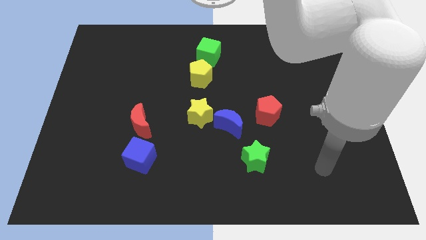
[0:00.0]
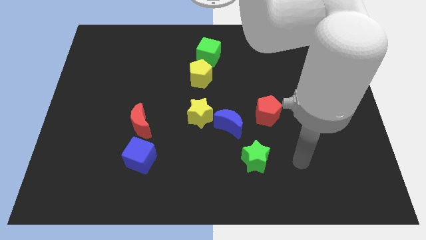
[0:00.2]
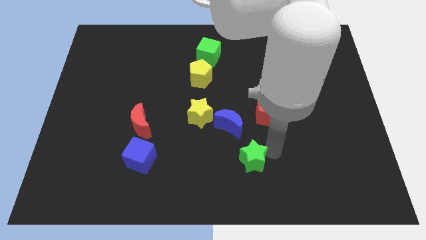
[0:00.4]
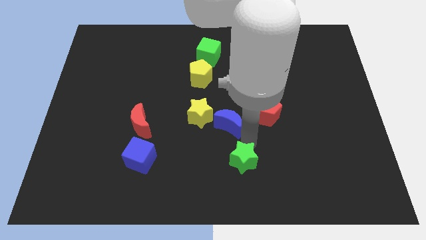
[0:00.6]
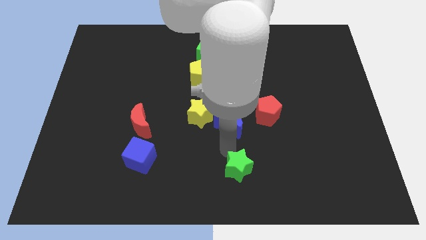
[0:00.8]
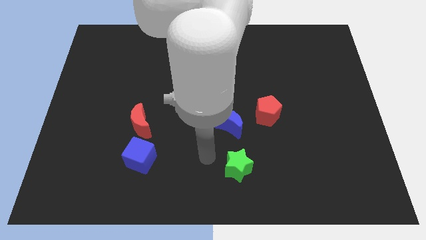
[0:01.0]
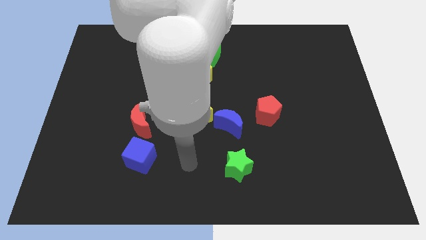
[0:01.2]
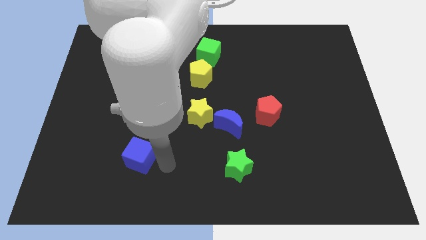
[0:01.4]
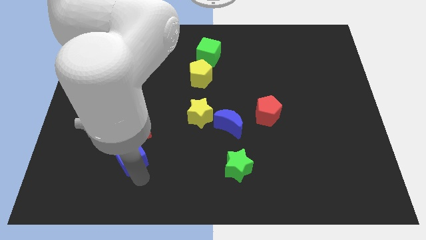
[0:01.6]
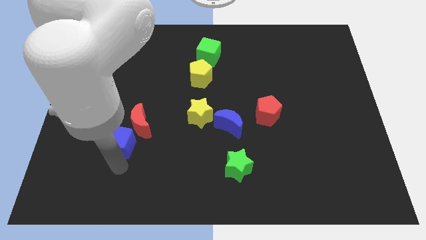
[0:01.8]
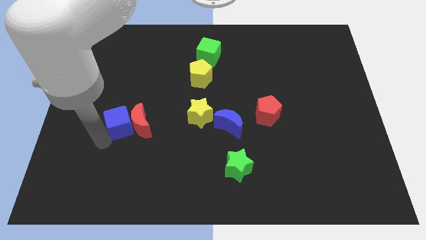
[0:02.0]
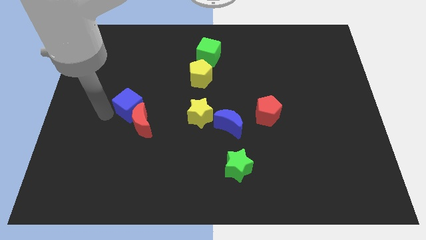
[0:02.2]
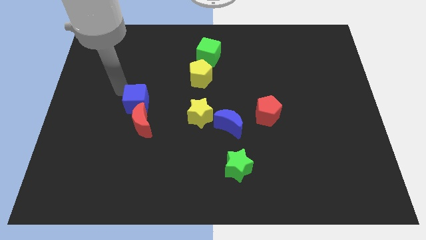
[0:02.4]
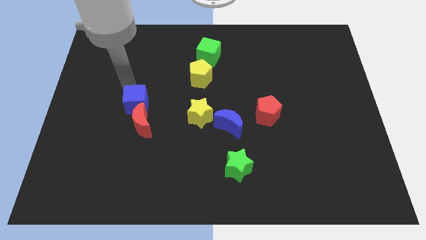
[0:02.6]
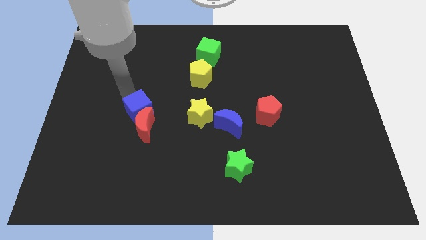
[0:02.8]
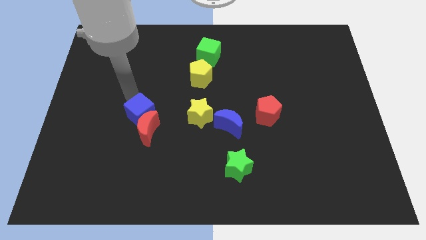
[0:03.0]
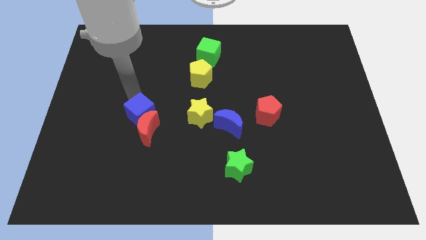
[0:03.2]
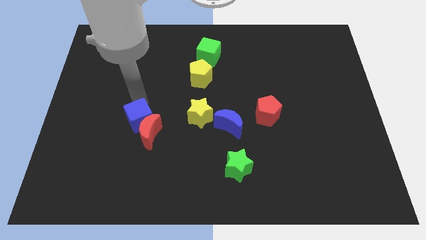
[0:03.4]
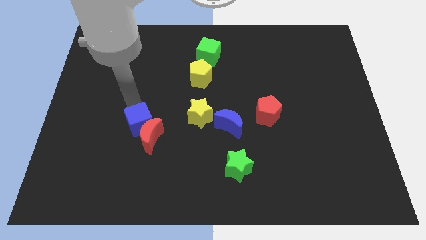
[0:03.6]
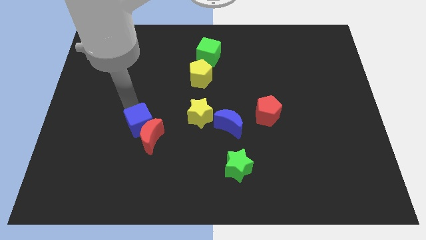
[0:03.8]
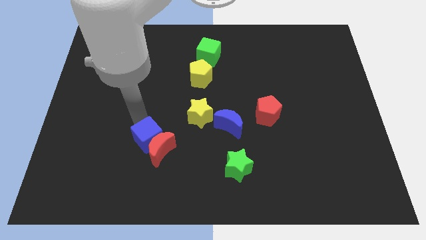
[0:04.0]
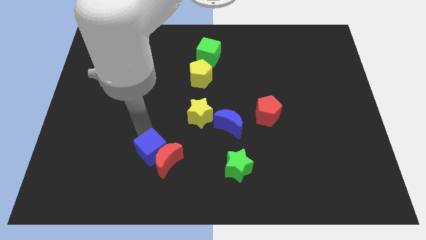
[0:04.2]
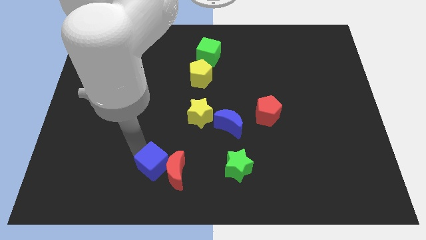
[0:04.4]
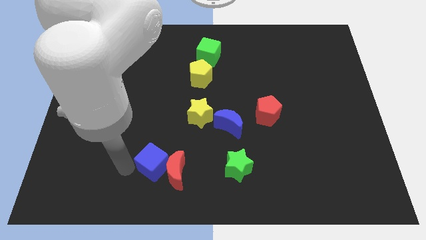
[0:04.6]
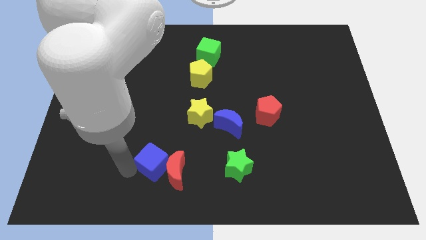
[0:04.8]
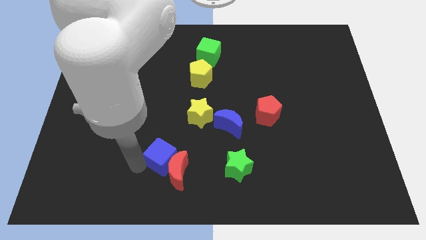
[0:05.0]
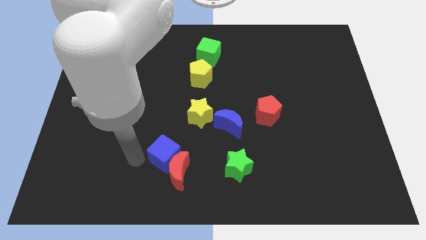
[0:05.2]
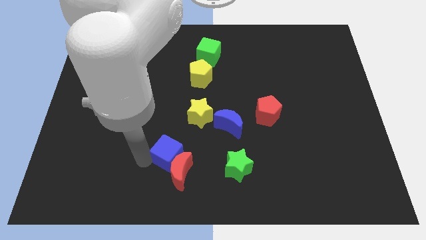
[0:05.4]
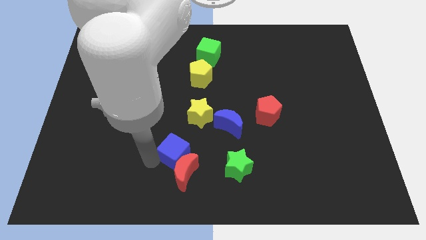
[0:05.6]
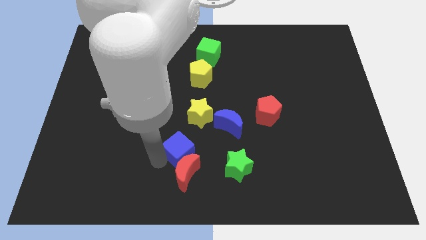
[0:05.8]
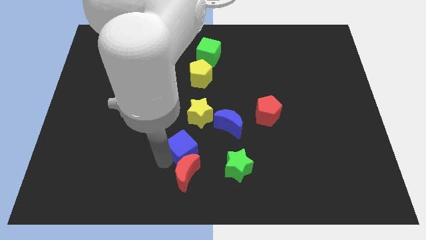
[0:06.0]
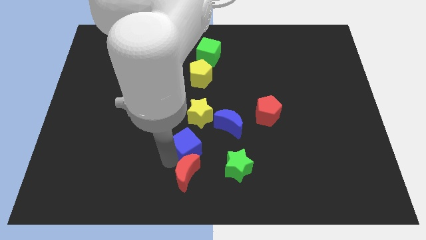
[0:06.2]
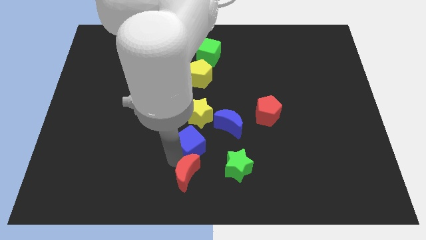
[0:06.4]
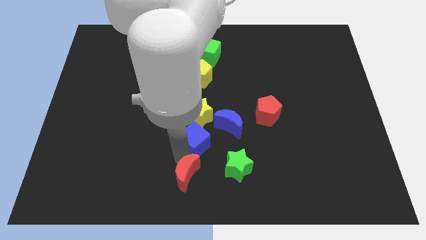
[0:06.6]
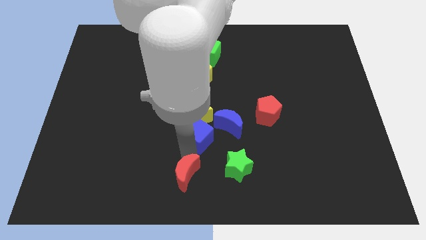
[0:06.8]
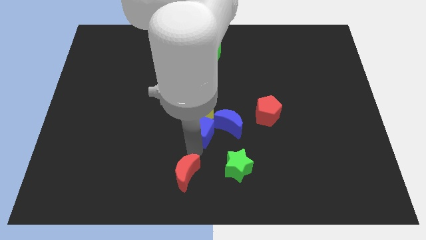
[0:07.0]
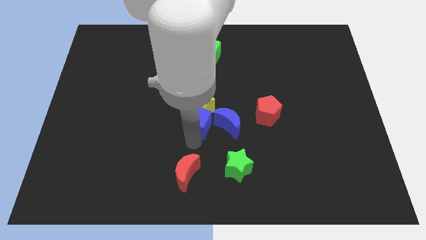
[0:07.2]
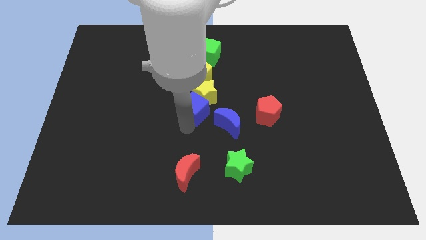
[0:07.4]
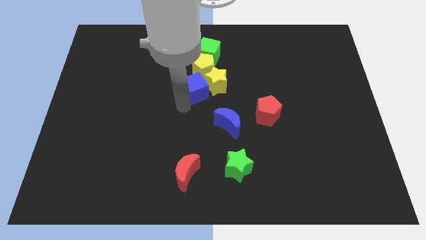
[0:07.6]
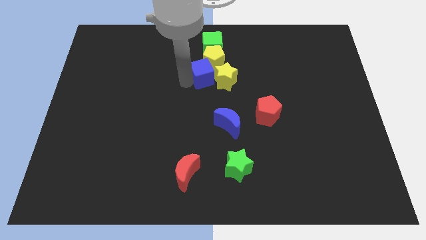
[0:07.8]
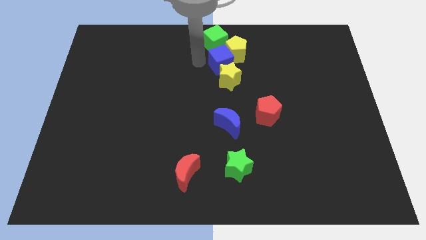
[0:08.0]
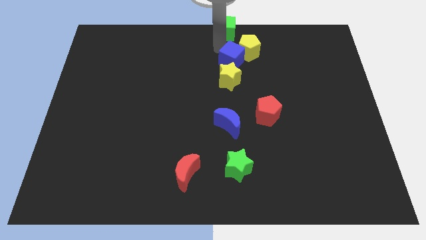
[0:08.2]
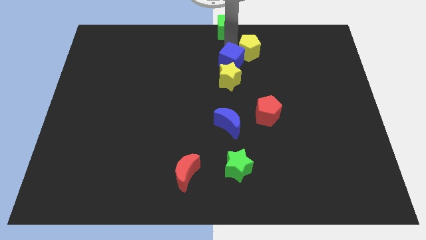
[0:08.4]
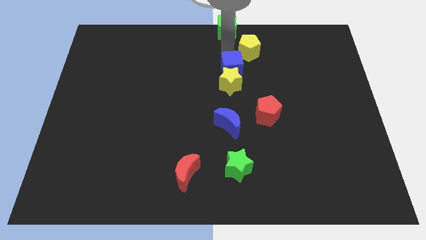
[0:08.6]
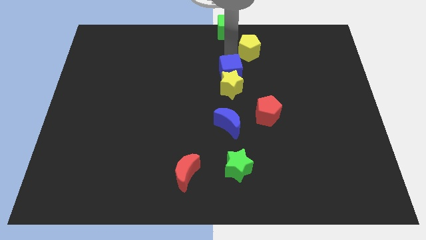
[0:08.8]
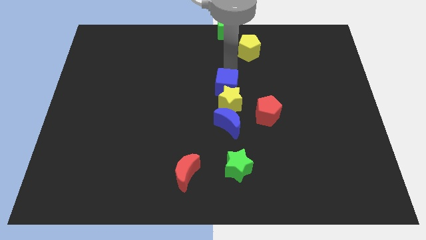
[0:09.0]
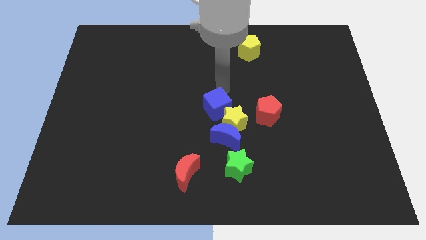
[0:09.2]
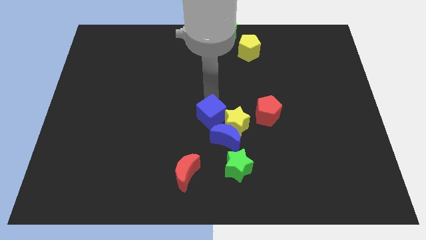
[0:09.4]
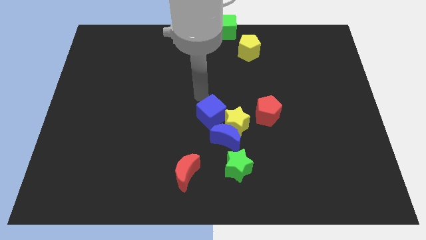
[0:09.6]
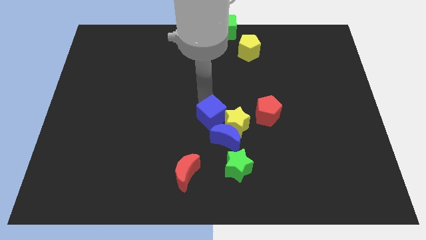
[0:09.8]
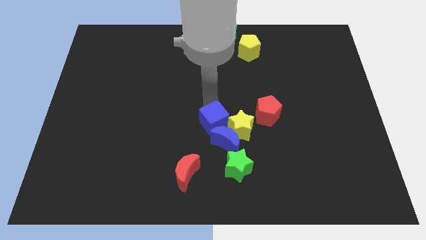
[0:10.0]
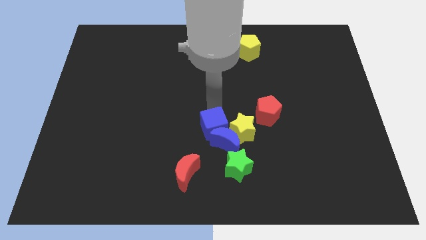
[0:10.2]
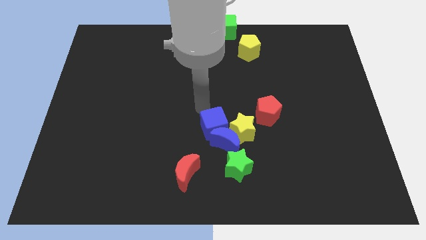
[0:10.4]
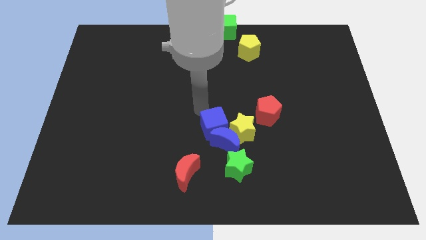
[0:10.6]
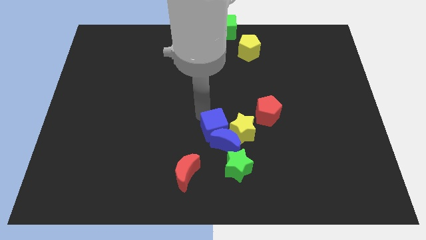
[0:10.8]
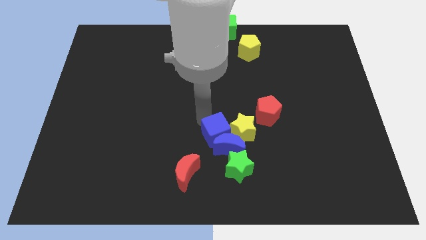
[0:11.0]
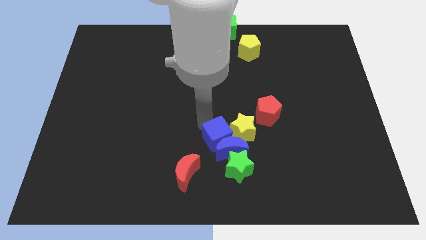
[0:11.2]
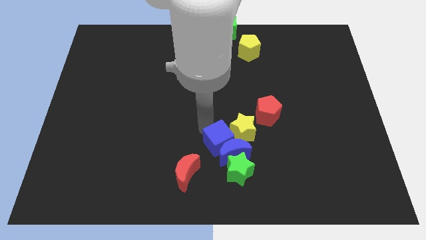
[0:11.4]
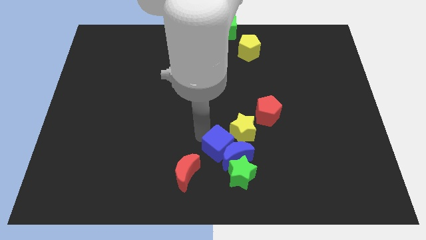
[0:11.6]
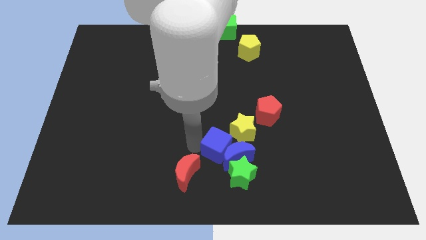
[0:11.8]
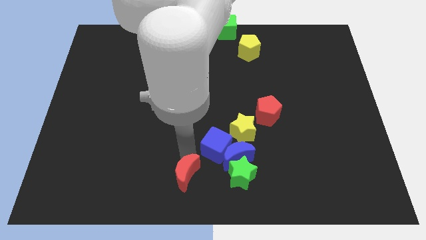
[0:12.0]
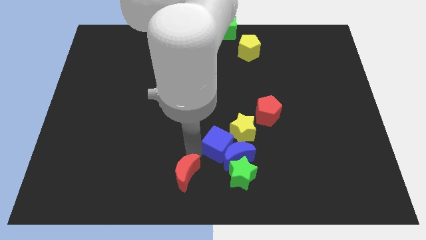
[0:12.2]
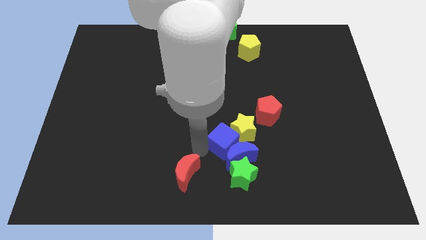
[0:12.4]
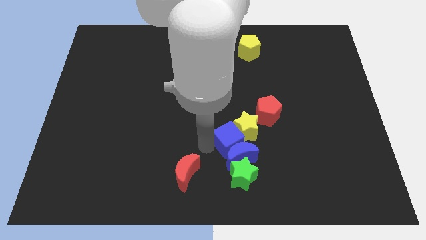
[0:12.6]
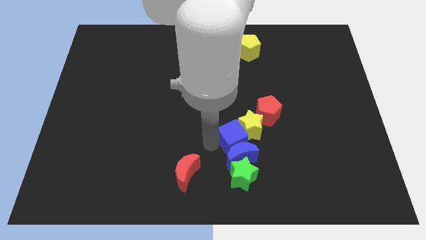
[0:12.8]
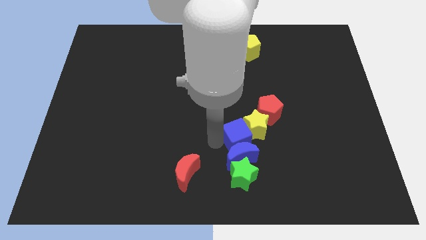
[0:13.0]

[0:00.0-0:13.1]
slide the blue cube to the right

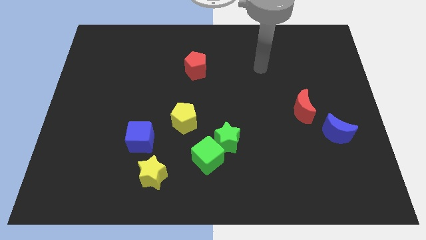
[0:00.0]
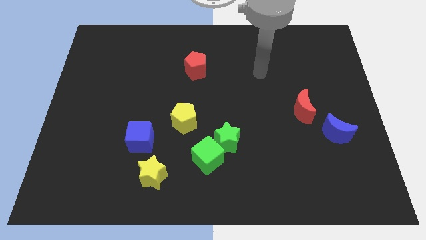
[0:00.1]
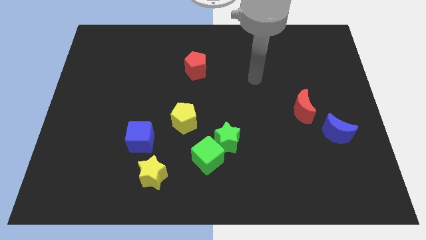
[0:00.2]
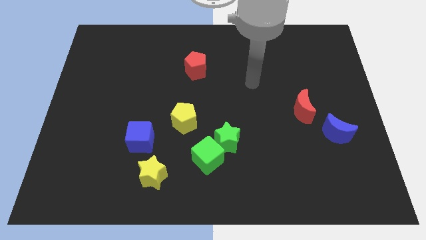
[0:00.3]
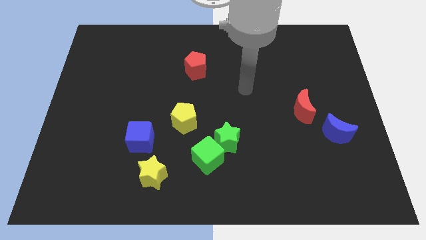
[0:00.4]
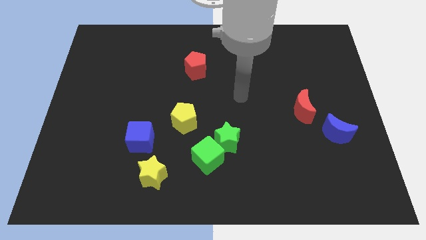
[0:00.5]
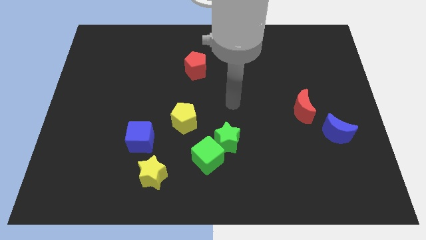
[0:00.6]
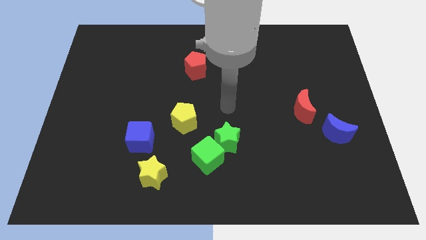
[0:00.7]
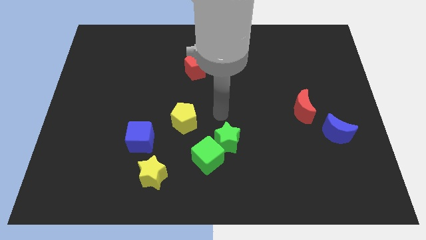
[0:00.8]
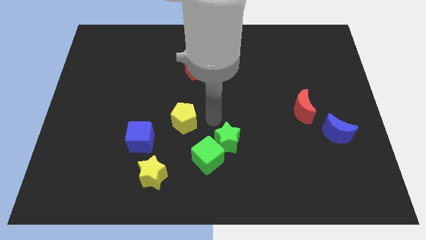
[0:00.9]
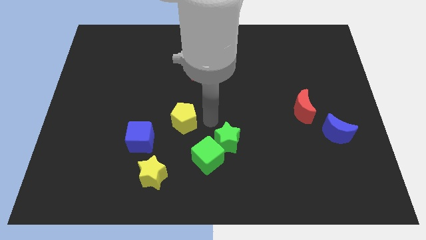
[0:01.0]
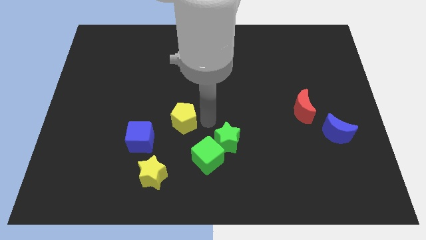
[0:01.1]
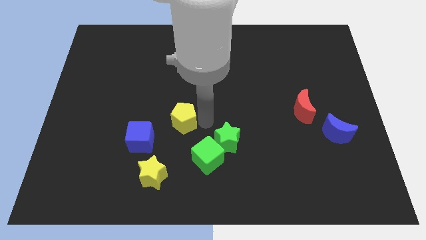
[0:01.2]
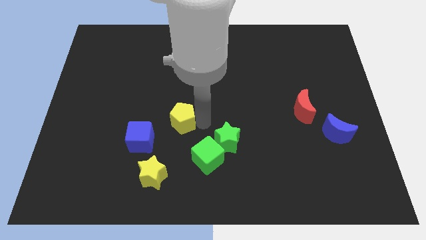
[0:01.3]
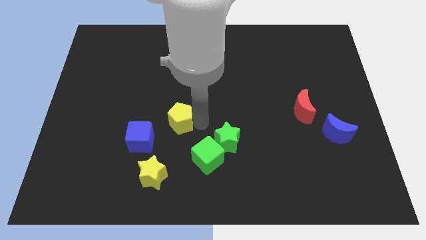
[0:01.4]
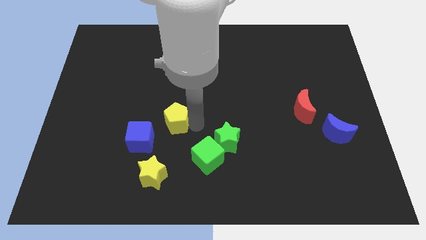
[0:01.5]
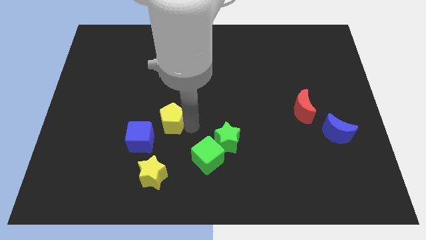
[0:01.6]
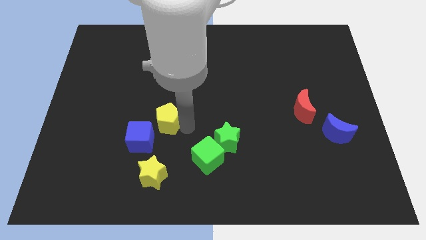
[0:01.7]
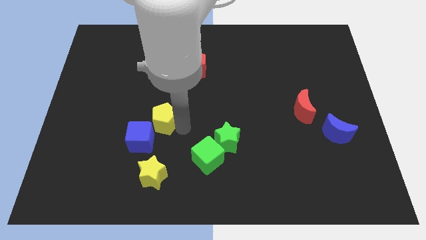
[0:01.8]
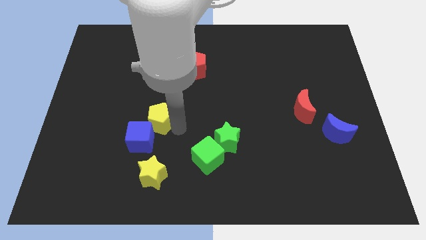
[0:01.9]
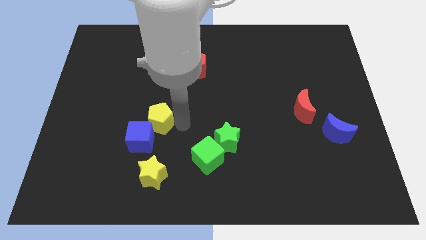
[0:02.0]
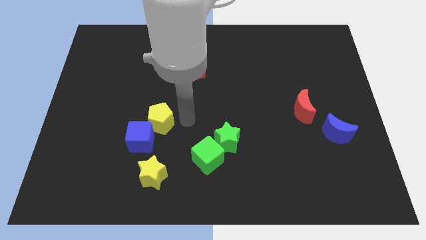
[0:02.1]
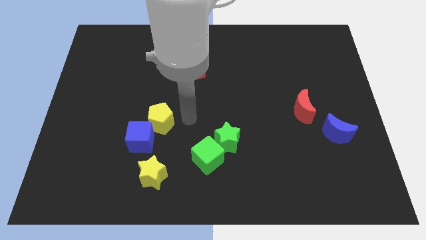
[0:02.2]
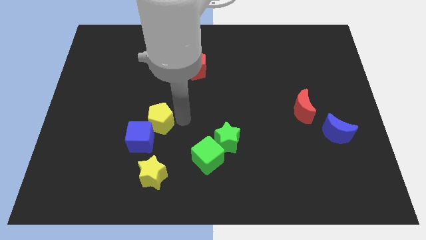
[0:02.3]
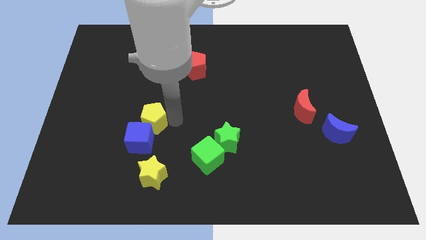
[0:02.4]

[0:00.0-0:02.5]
slightly push the yellow pentagon to the left
